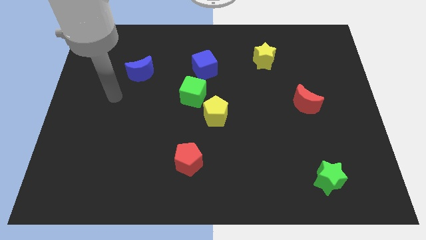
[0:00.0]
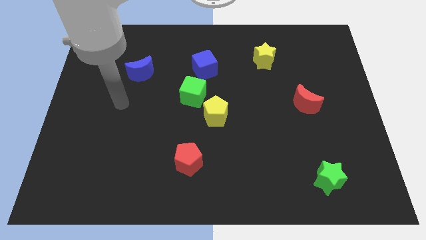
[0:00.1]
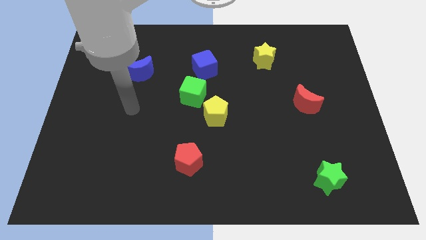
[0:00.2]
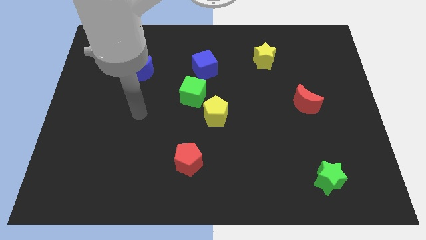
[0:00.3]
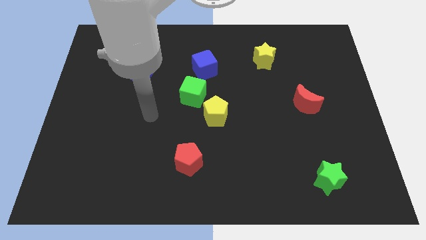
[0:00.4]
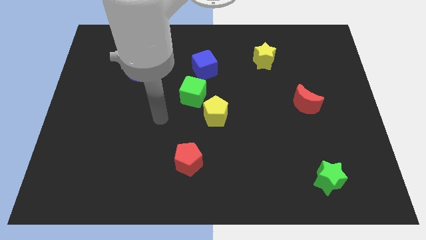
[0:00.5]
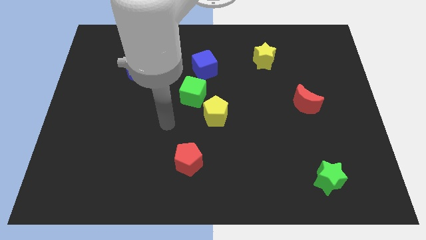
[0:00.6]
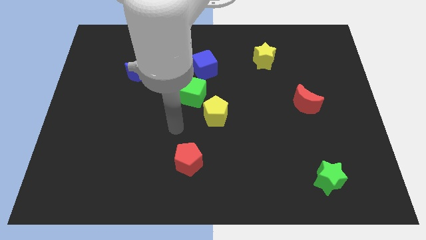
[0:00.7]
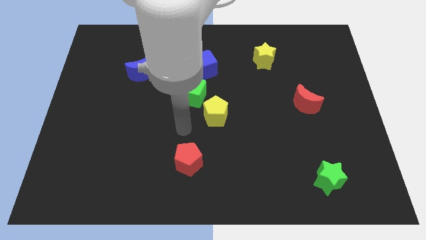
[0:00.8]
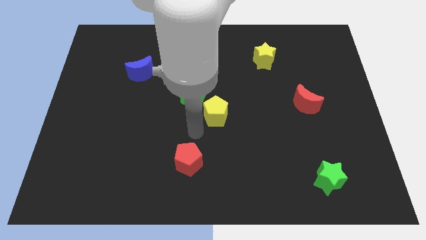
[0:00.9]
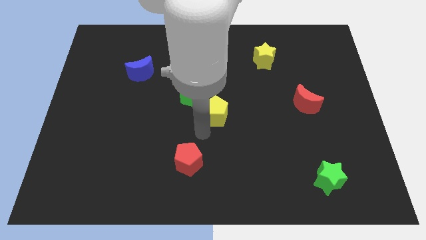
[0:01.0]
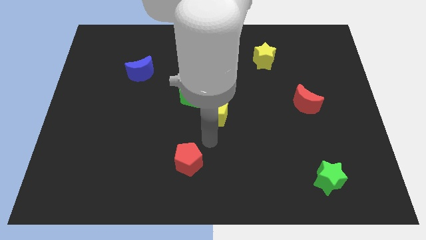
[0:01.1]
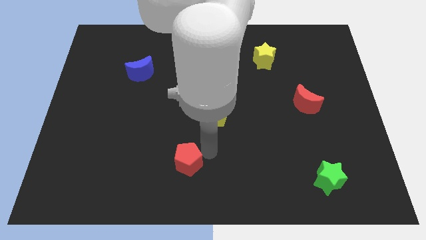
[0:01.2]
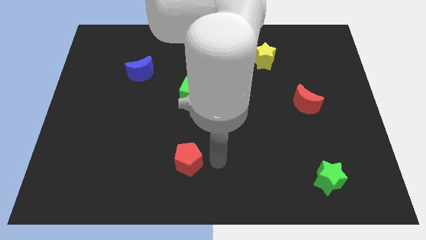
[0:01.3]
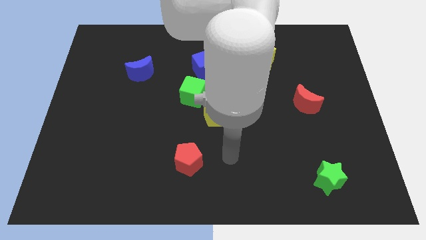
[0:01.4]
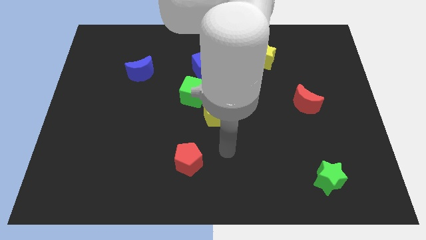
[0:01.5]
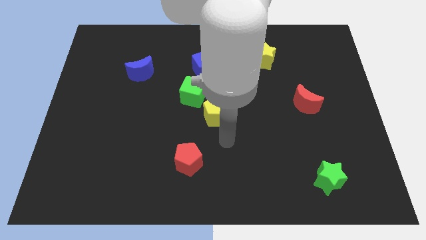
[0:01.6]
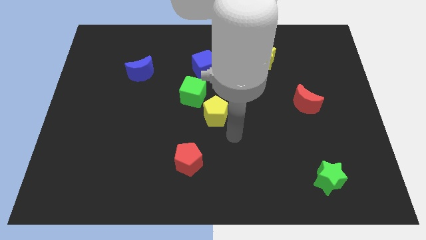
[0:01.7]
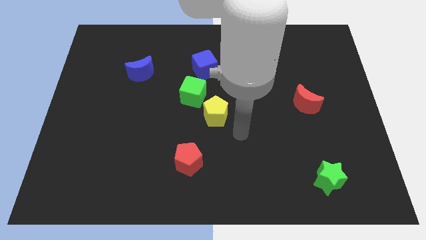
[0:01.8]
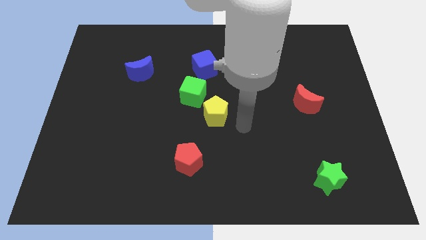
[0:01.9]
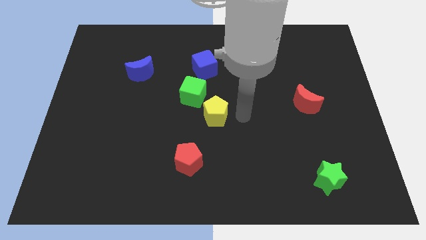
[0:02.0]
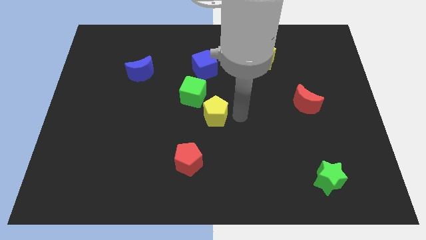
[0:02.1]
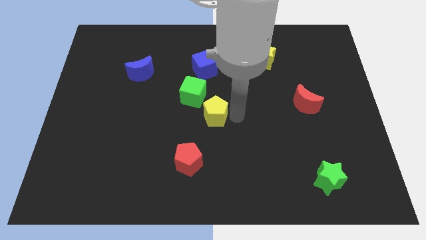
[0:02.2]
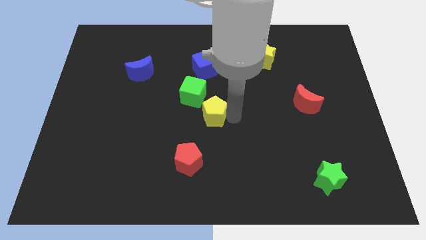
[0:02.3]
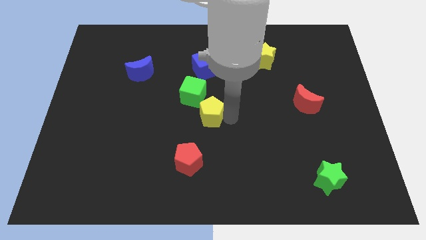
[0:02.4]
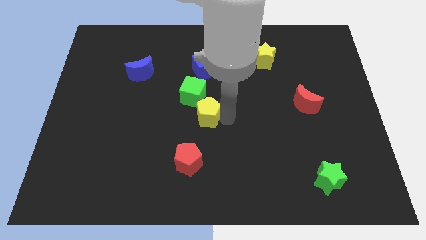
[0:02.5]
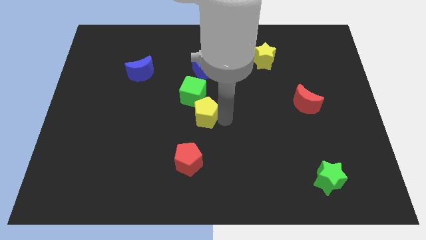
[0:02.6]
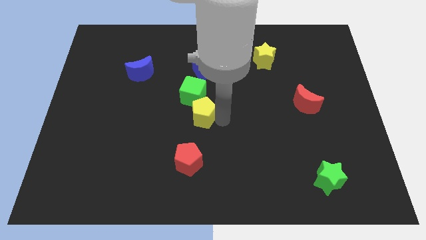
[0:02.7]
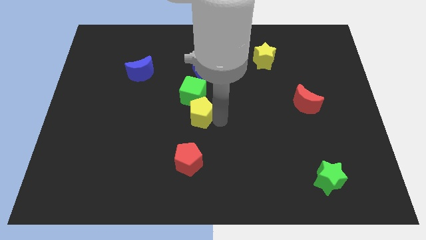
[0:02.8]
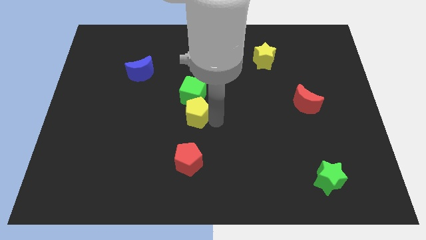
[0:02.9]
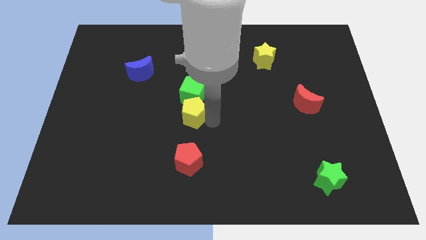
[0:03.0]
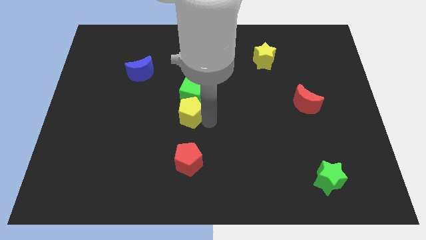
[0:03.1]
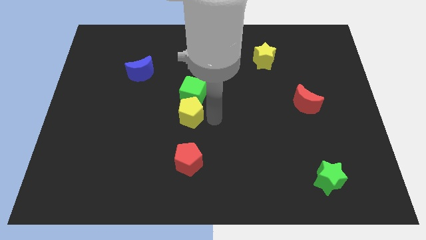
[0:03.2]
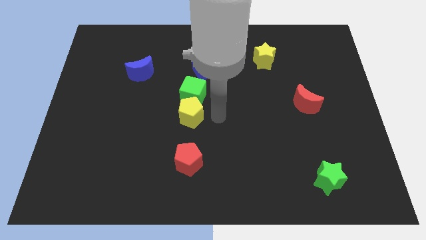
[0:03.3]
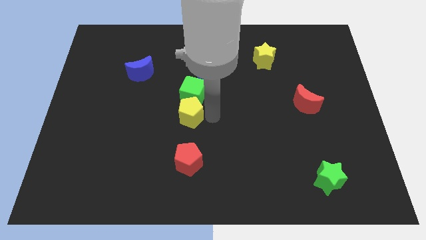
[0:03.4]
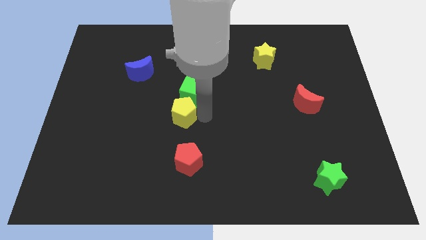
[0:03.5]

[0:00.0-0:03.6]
slightly slide the yellow pentagon left

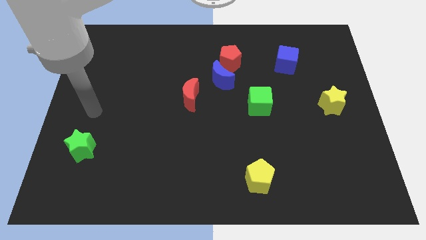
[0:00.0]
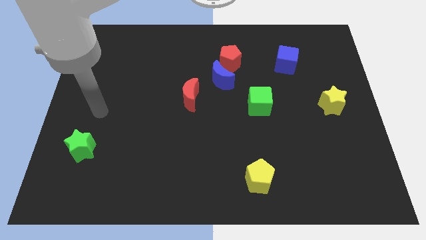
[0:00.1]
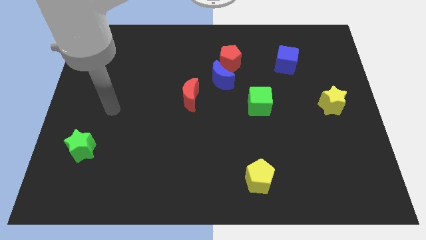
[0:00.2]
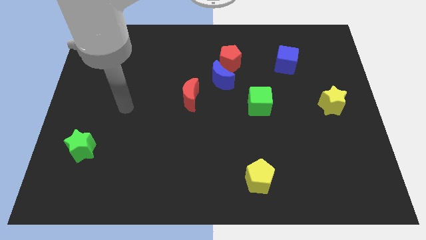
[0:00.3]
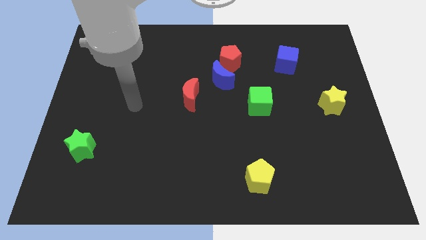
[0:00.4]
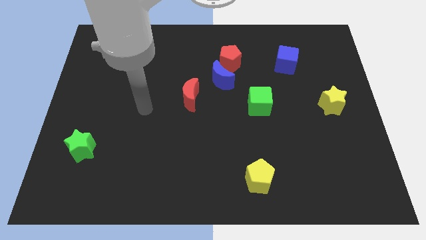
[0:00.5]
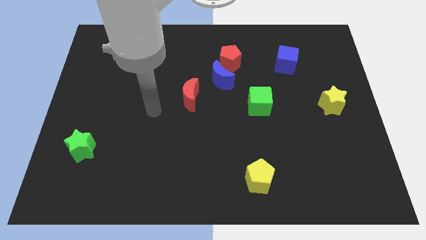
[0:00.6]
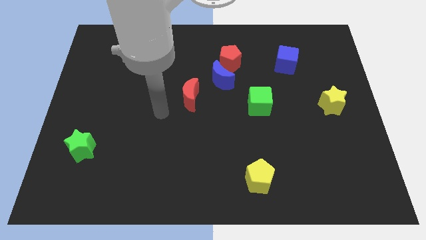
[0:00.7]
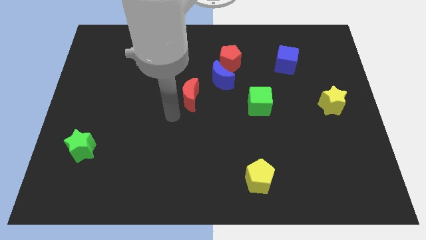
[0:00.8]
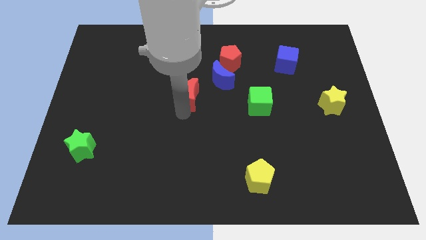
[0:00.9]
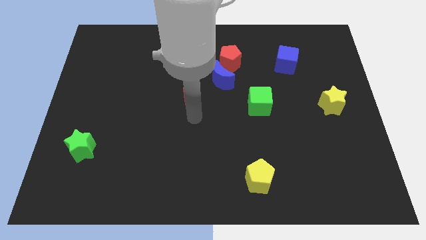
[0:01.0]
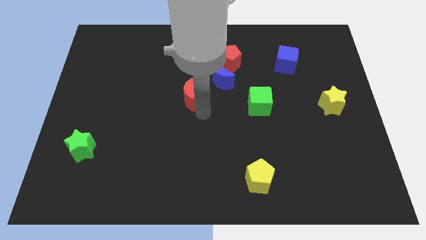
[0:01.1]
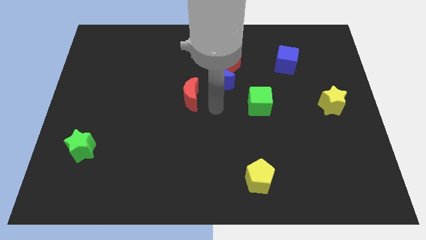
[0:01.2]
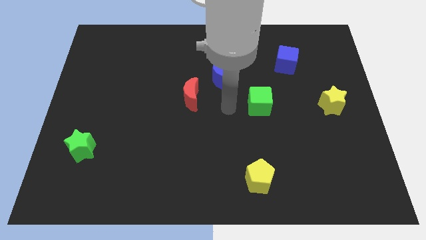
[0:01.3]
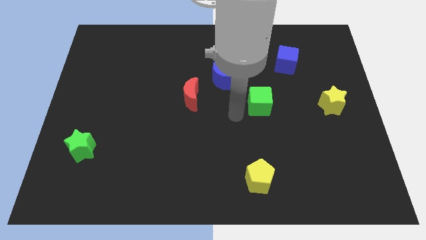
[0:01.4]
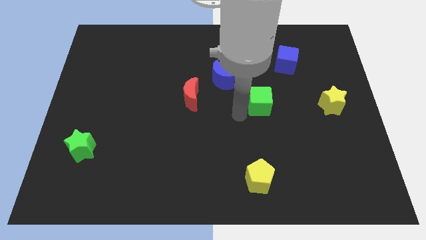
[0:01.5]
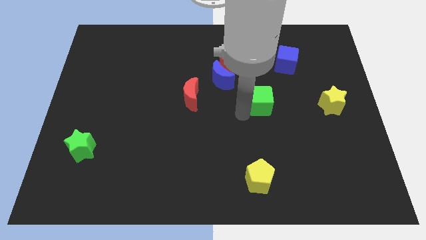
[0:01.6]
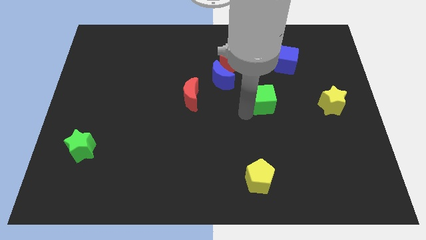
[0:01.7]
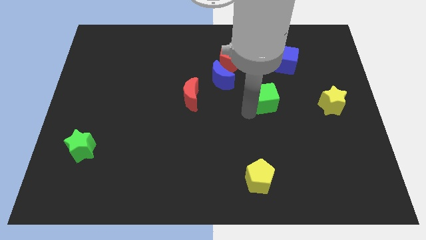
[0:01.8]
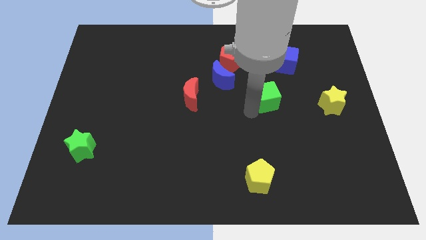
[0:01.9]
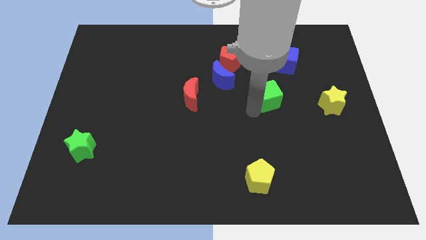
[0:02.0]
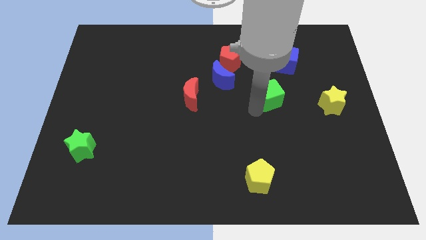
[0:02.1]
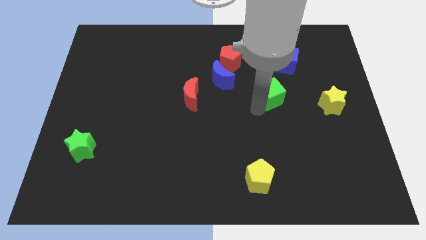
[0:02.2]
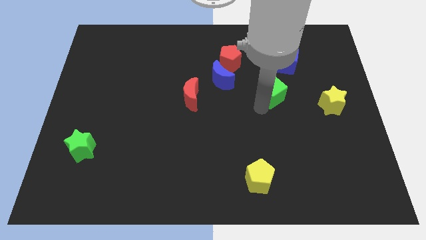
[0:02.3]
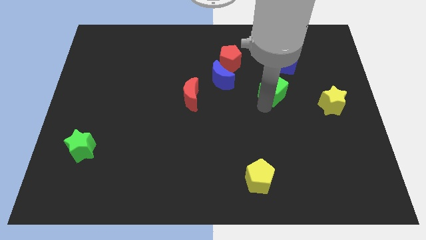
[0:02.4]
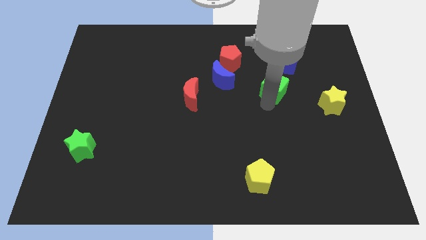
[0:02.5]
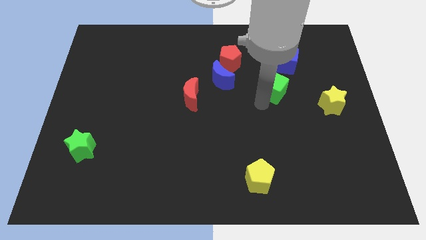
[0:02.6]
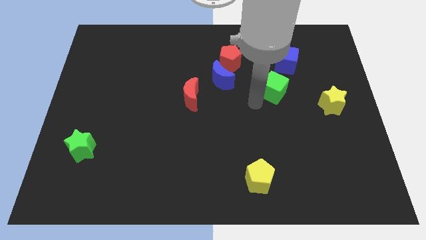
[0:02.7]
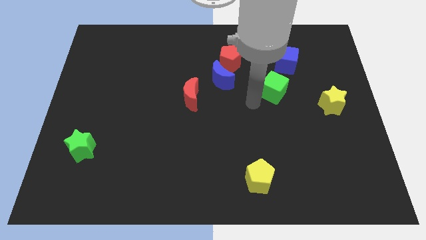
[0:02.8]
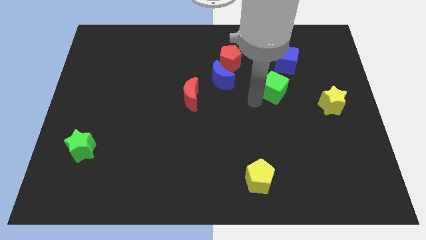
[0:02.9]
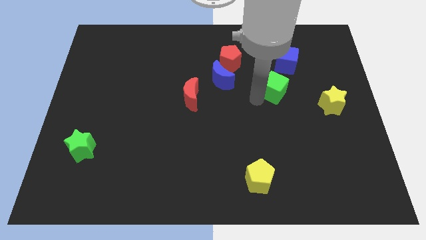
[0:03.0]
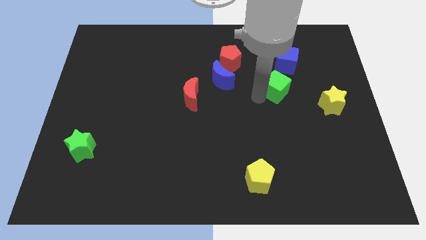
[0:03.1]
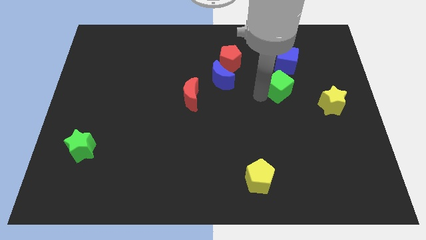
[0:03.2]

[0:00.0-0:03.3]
slightly move the green cube upwards and right

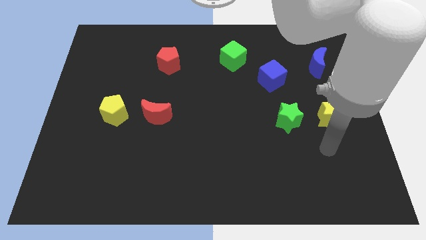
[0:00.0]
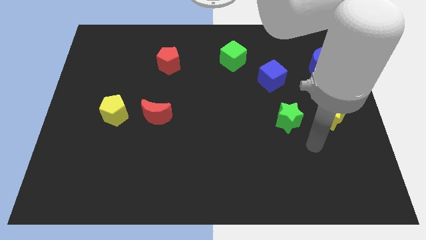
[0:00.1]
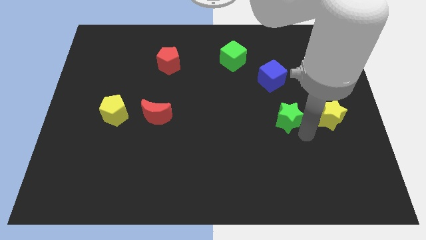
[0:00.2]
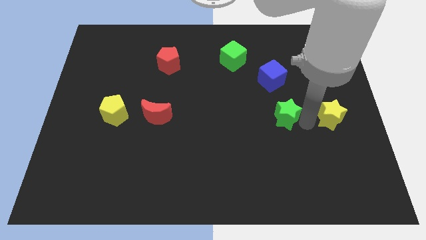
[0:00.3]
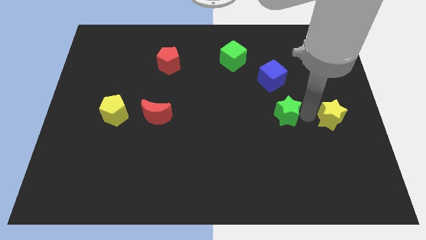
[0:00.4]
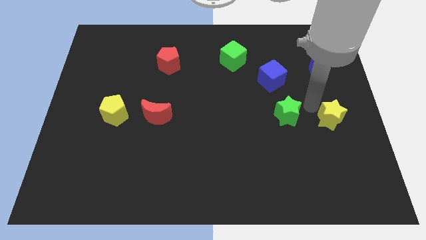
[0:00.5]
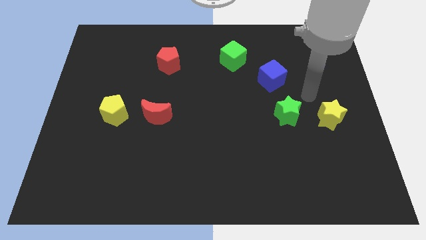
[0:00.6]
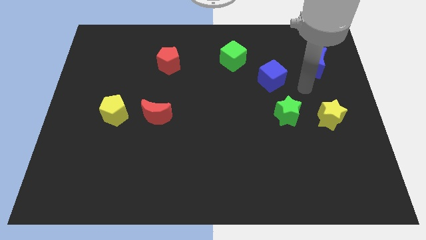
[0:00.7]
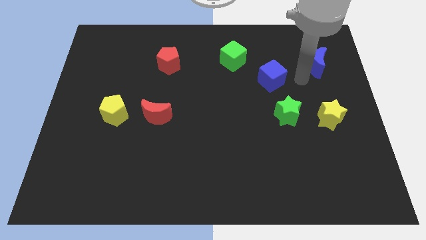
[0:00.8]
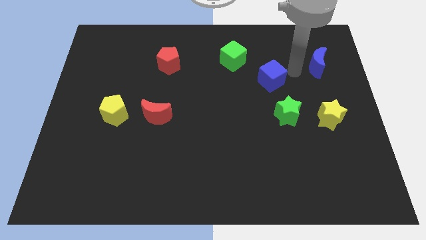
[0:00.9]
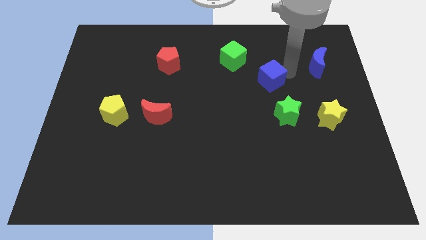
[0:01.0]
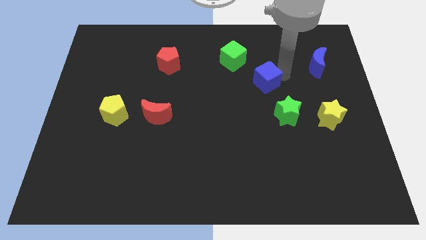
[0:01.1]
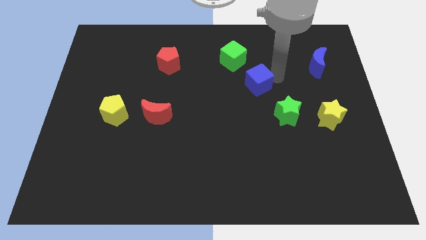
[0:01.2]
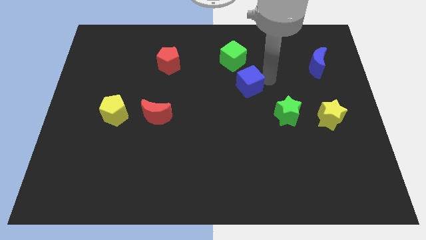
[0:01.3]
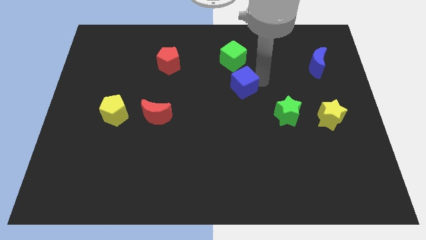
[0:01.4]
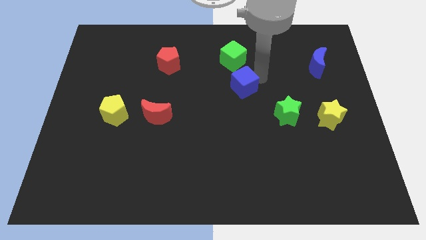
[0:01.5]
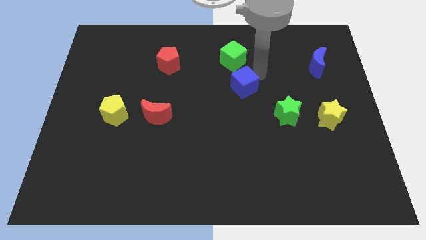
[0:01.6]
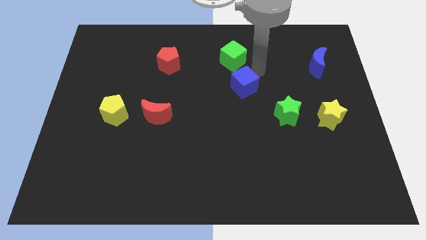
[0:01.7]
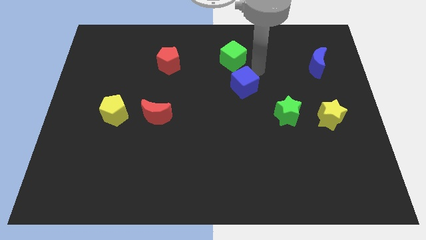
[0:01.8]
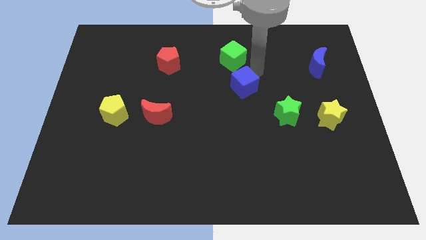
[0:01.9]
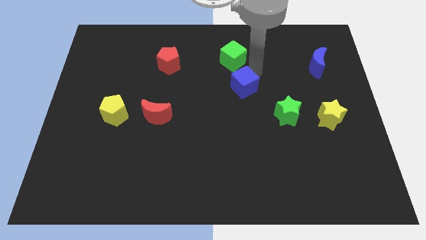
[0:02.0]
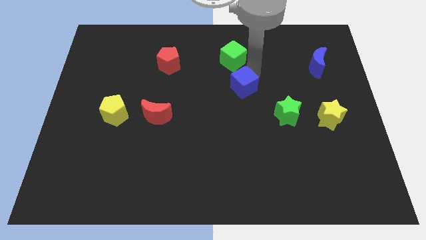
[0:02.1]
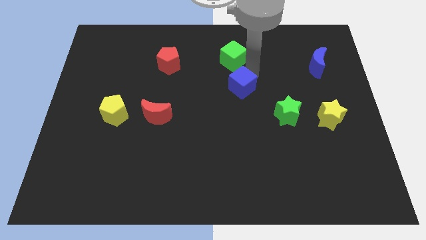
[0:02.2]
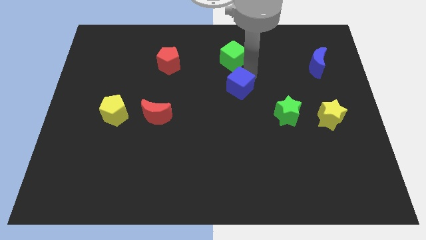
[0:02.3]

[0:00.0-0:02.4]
slightly push the blue cube down and left
